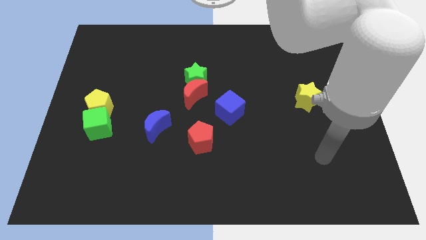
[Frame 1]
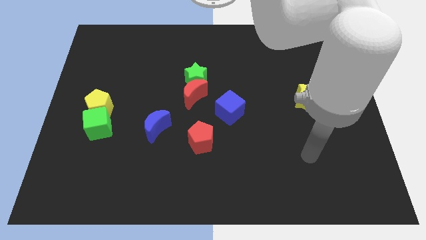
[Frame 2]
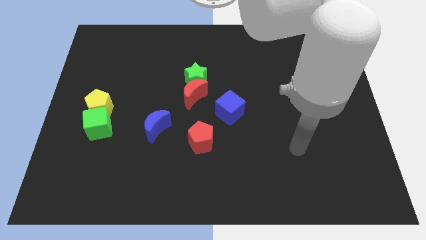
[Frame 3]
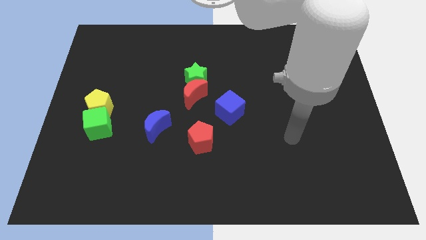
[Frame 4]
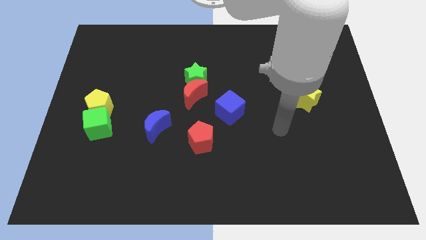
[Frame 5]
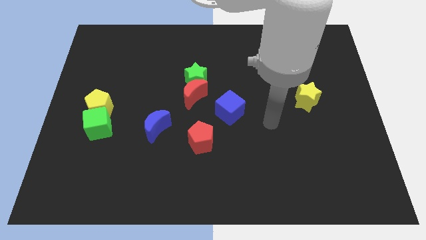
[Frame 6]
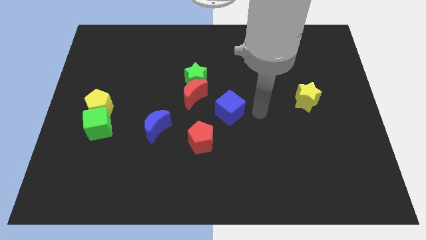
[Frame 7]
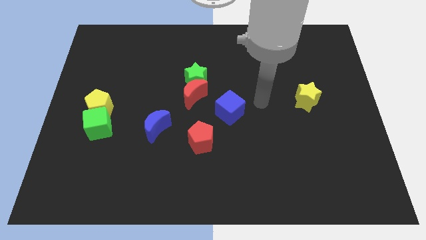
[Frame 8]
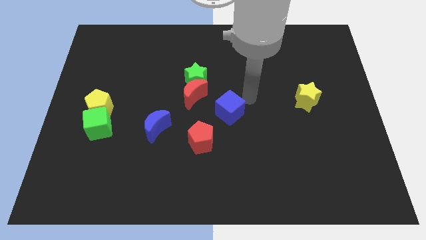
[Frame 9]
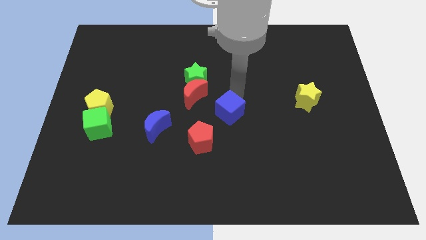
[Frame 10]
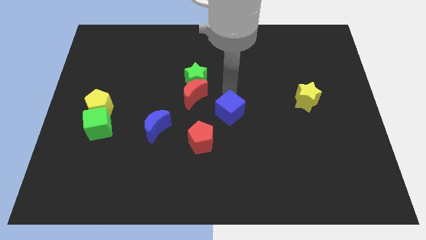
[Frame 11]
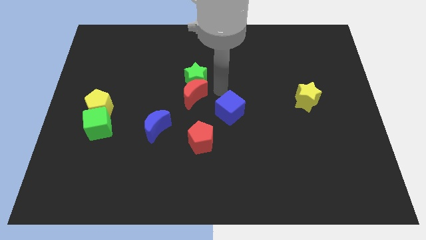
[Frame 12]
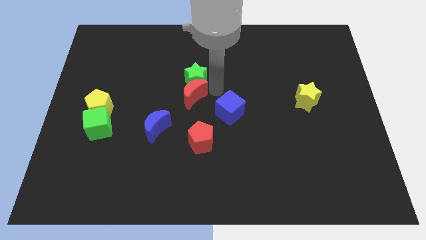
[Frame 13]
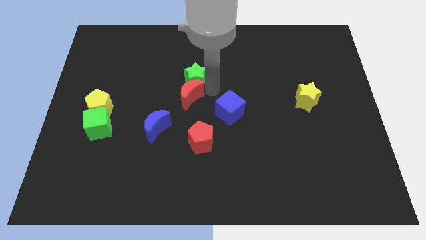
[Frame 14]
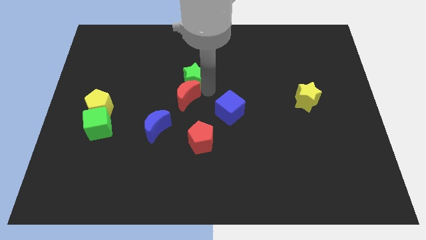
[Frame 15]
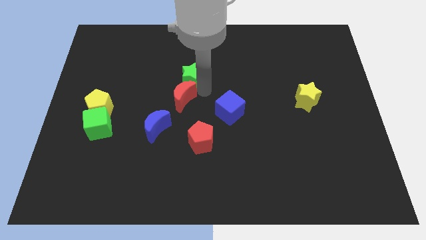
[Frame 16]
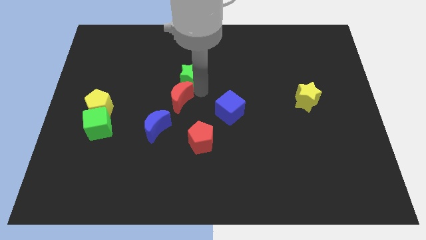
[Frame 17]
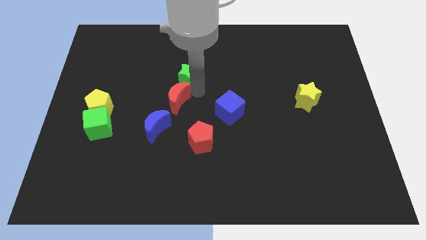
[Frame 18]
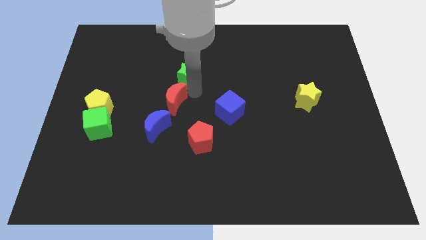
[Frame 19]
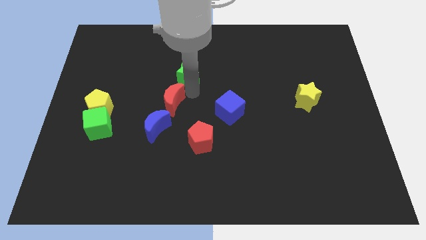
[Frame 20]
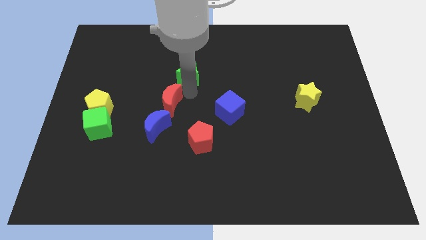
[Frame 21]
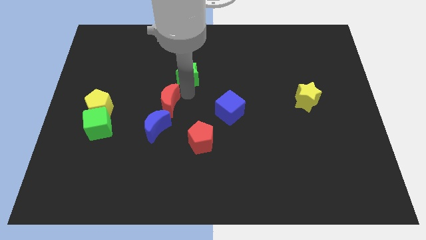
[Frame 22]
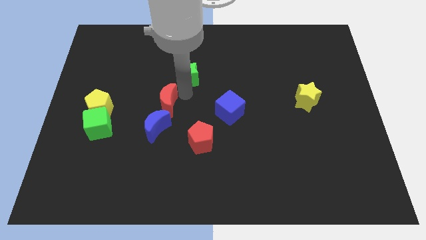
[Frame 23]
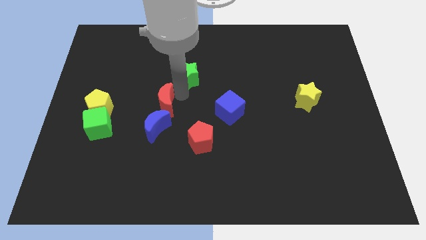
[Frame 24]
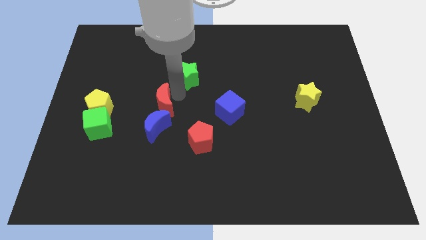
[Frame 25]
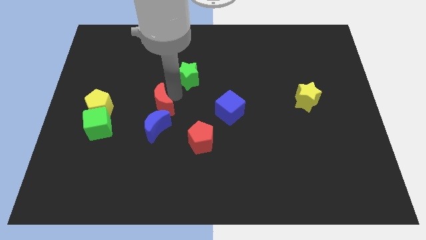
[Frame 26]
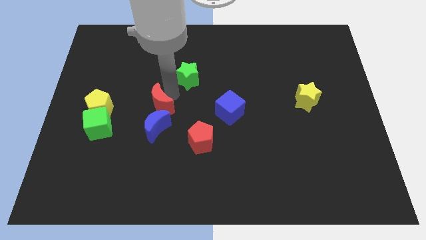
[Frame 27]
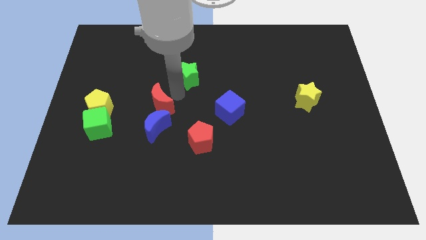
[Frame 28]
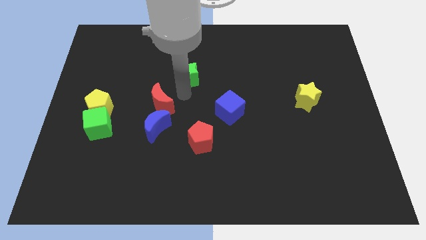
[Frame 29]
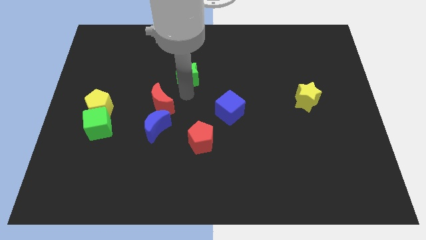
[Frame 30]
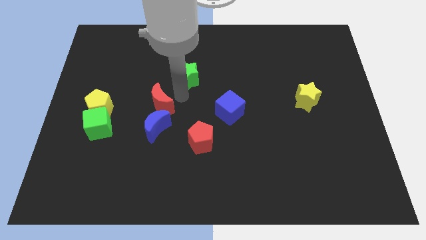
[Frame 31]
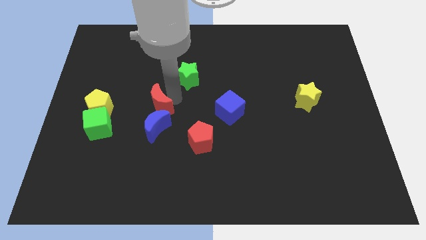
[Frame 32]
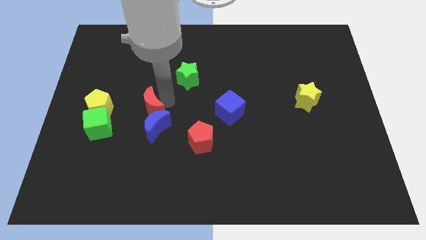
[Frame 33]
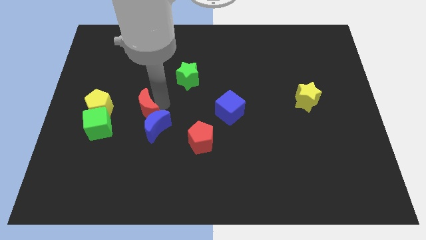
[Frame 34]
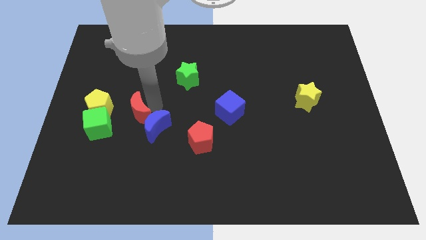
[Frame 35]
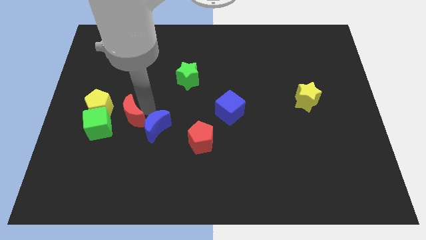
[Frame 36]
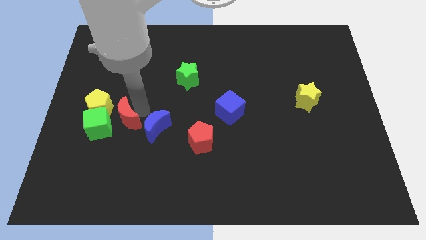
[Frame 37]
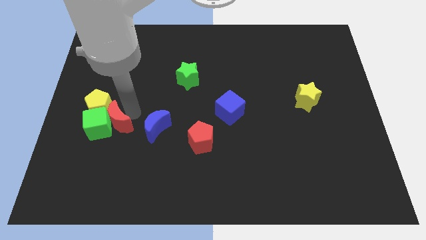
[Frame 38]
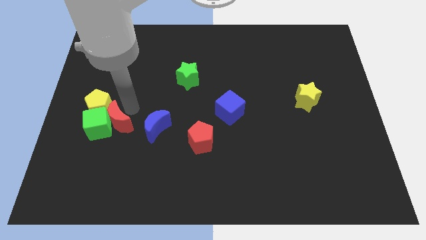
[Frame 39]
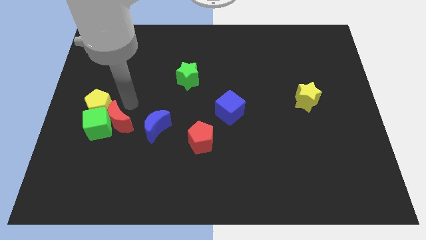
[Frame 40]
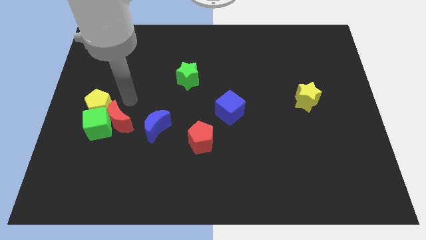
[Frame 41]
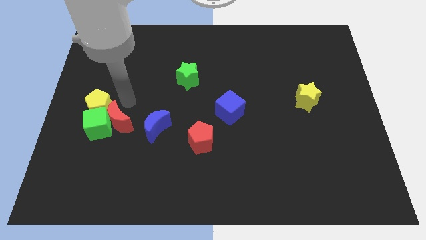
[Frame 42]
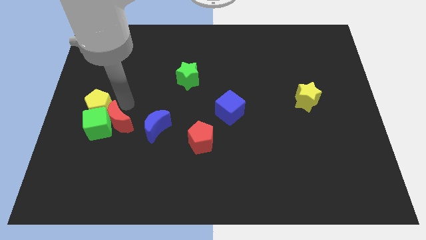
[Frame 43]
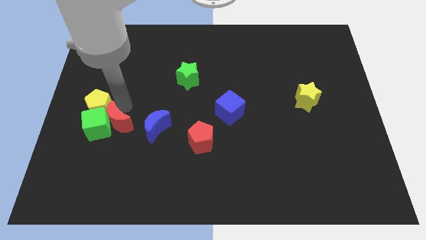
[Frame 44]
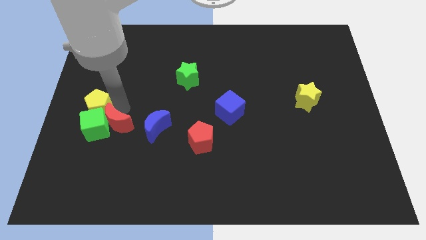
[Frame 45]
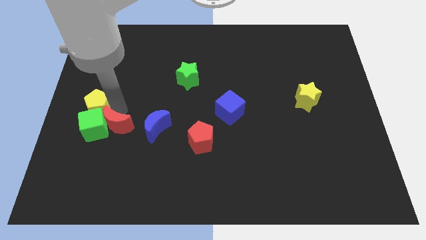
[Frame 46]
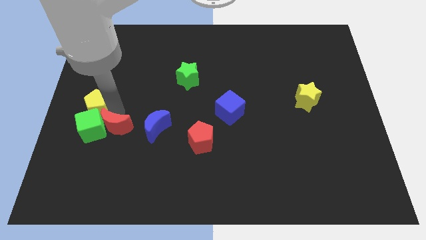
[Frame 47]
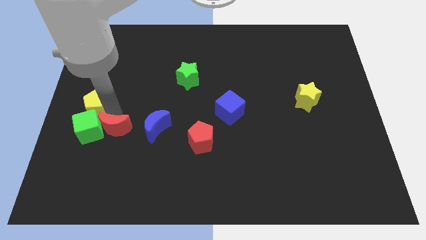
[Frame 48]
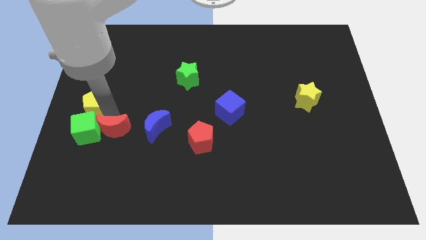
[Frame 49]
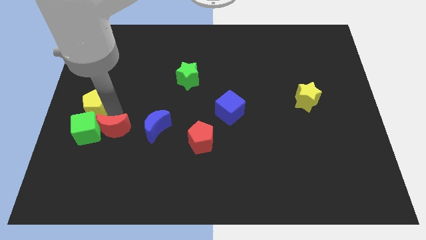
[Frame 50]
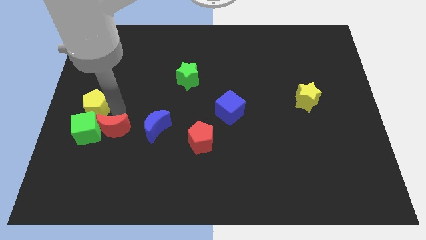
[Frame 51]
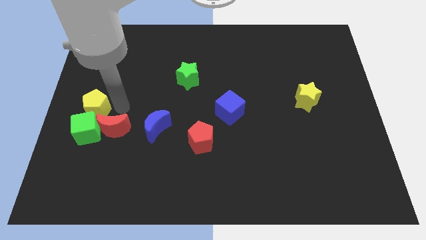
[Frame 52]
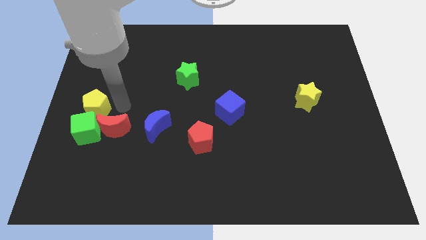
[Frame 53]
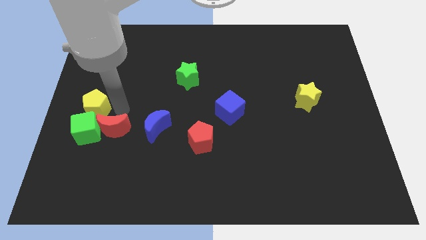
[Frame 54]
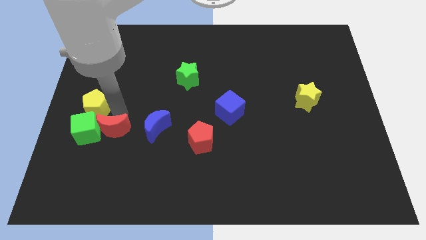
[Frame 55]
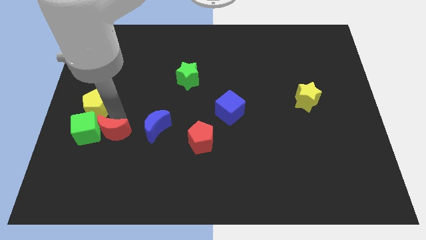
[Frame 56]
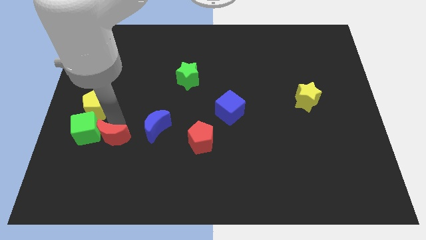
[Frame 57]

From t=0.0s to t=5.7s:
push the red moon downwards and then to the left

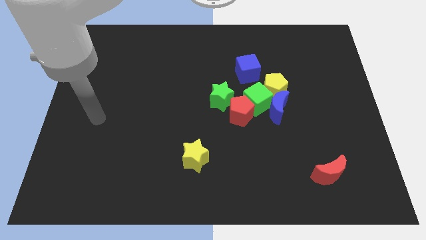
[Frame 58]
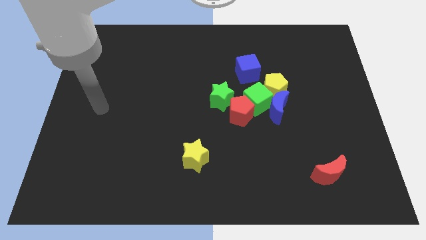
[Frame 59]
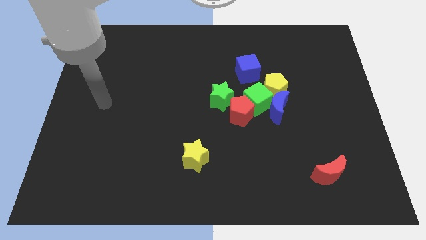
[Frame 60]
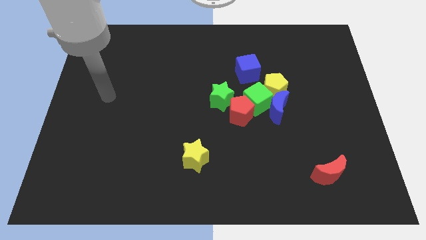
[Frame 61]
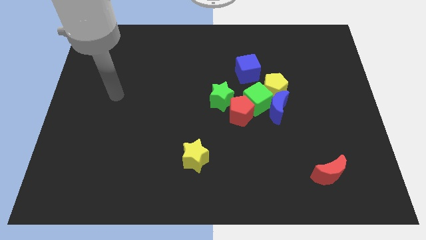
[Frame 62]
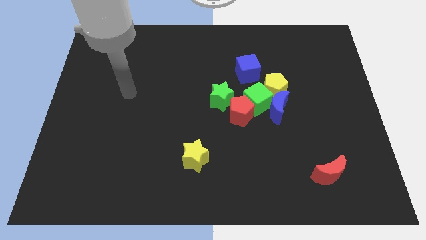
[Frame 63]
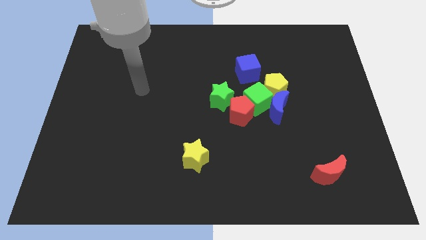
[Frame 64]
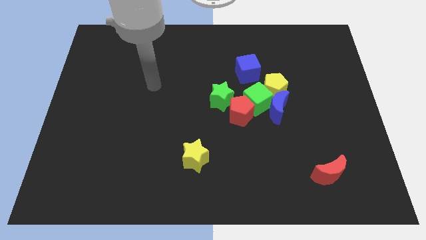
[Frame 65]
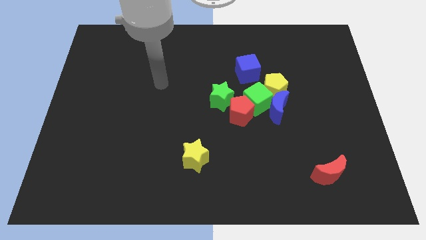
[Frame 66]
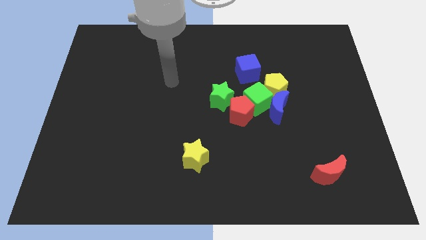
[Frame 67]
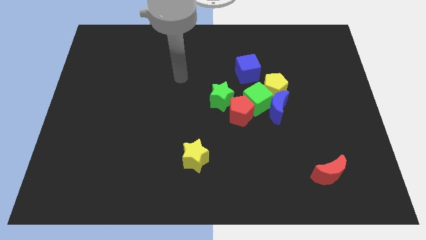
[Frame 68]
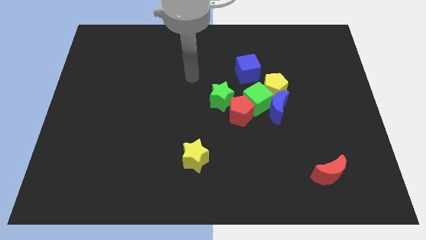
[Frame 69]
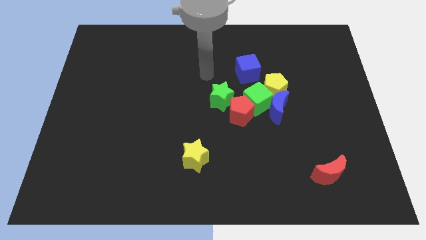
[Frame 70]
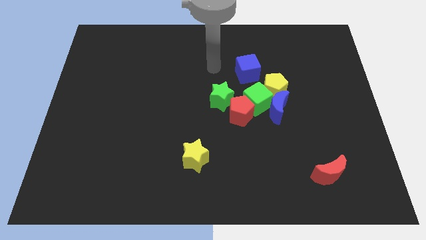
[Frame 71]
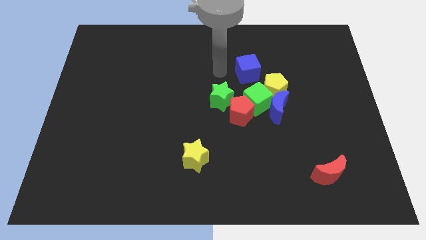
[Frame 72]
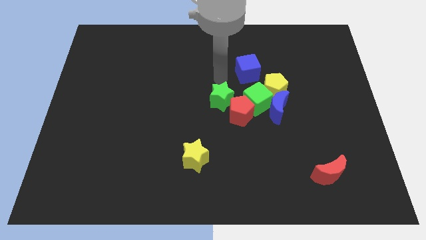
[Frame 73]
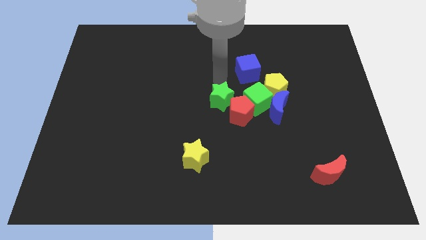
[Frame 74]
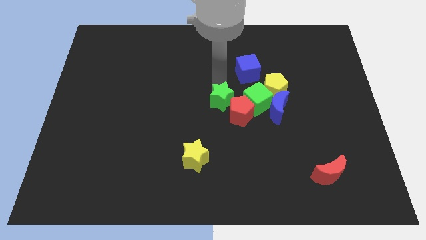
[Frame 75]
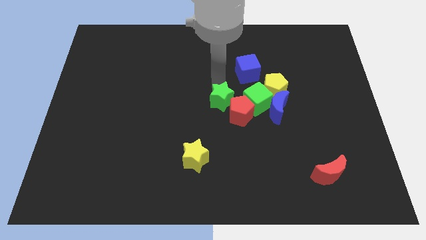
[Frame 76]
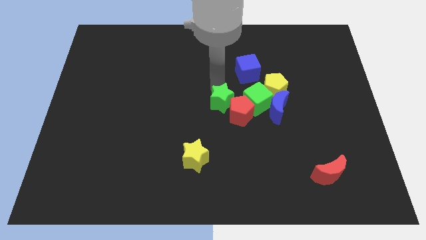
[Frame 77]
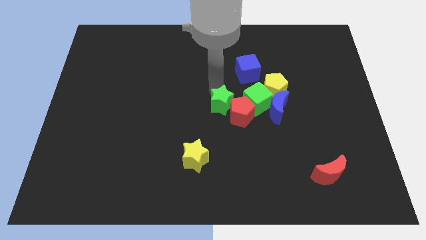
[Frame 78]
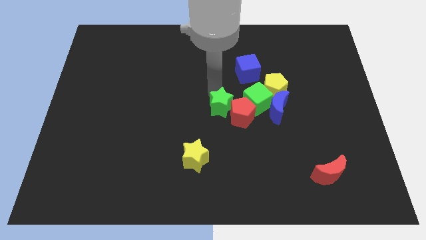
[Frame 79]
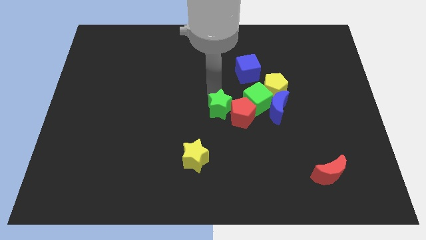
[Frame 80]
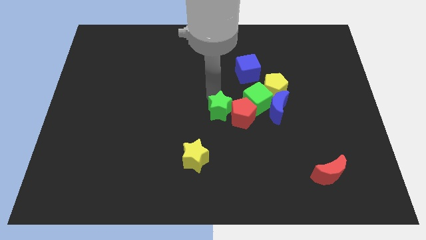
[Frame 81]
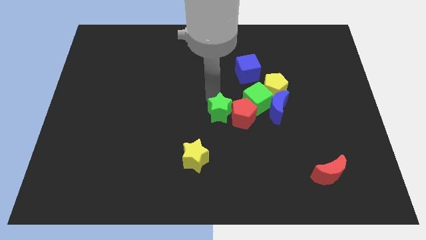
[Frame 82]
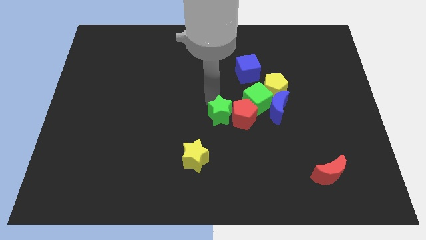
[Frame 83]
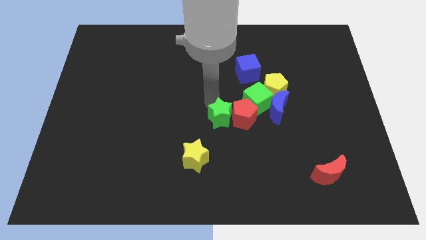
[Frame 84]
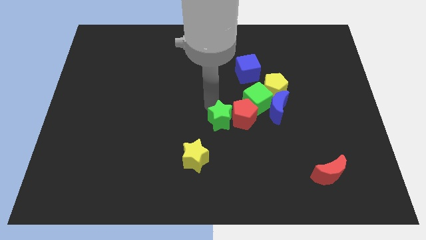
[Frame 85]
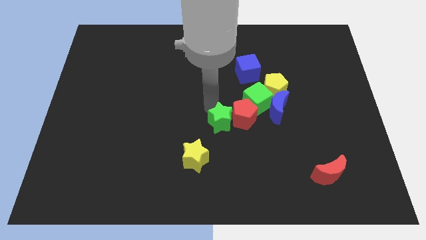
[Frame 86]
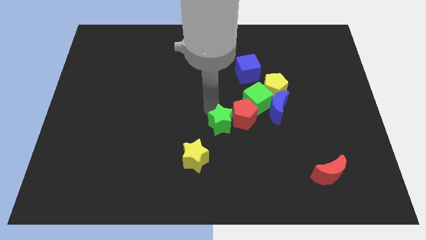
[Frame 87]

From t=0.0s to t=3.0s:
slightly slide the green star downwards
